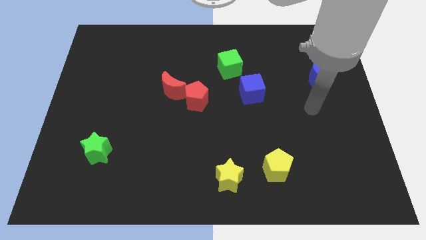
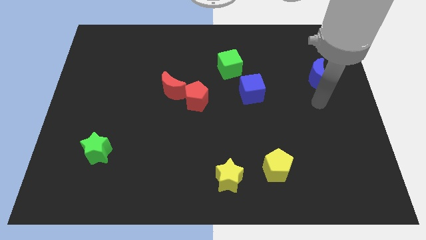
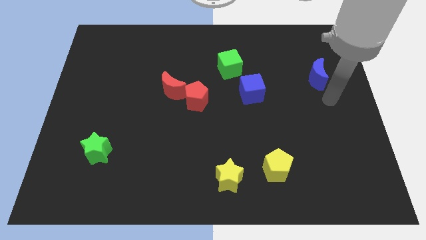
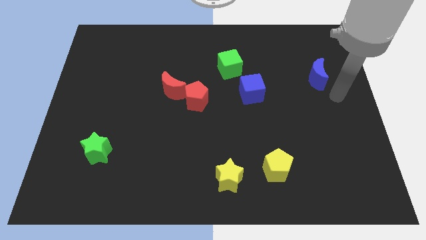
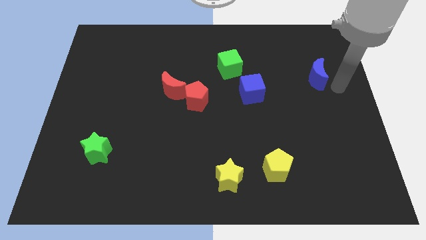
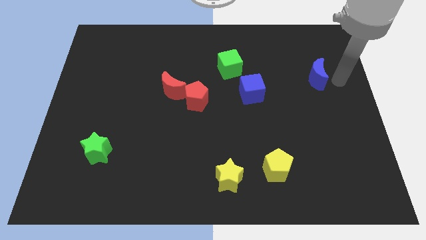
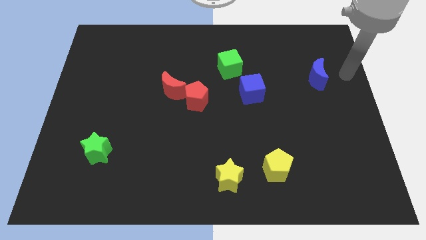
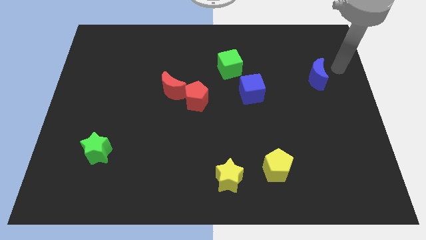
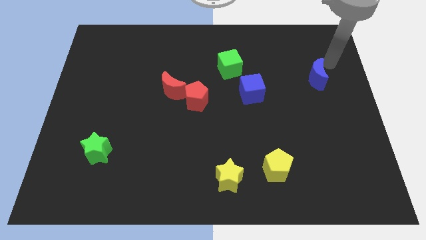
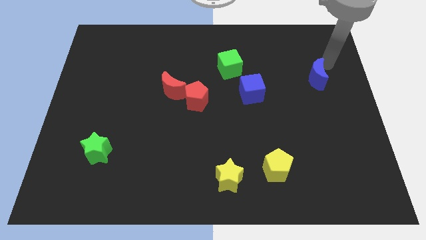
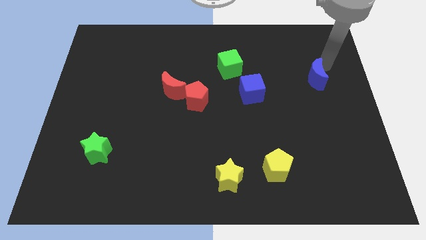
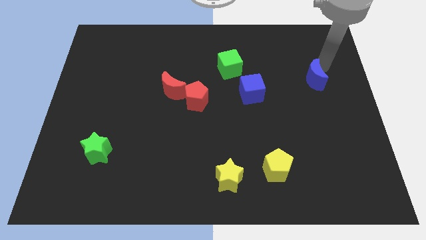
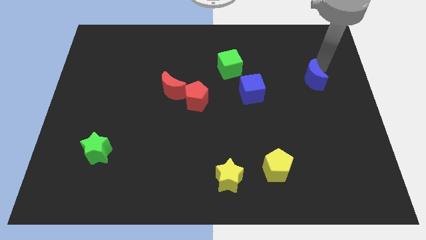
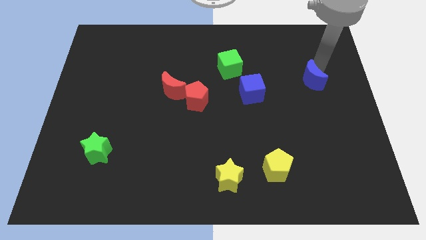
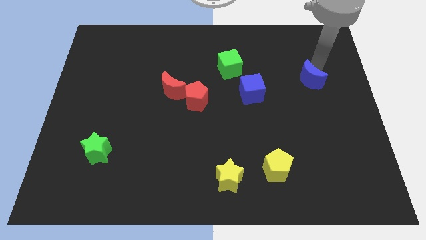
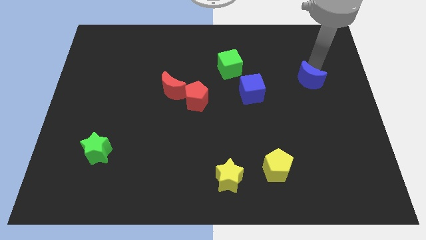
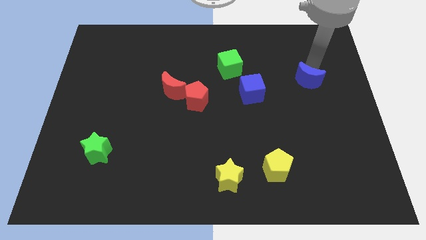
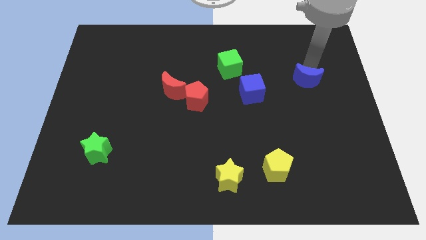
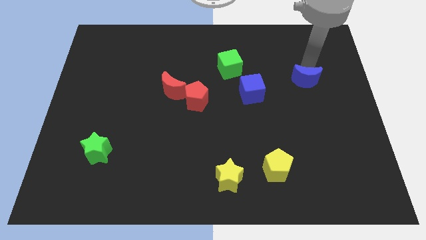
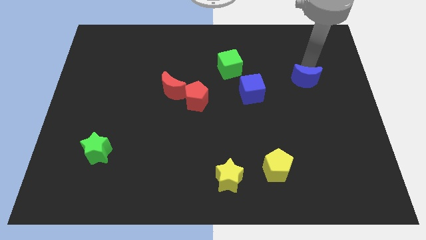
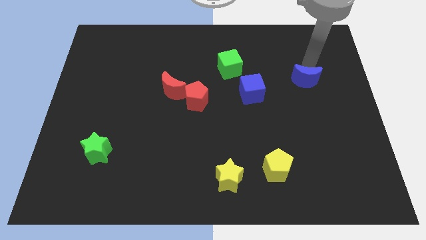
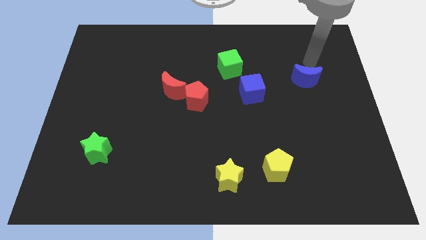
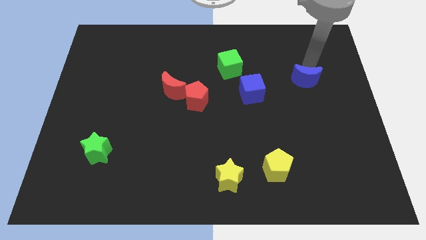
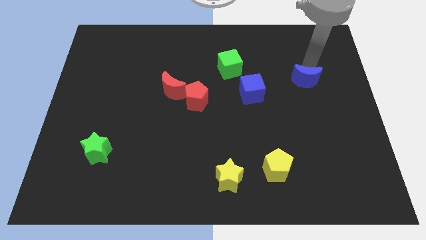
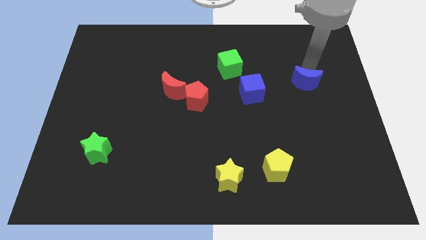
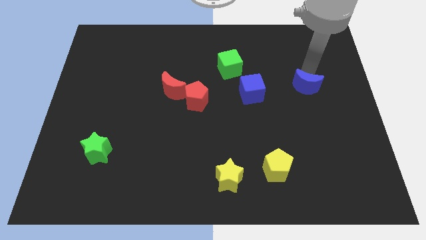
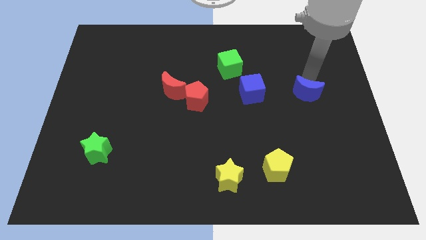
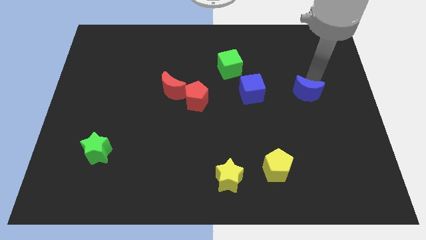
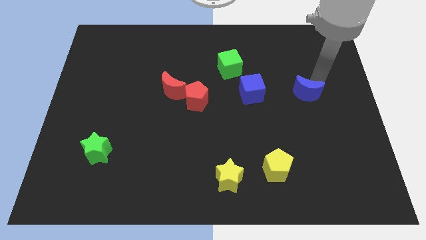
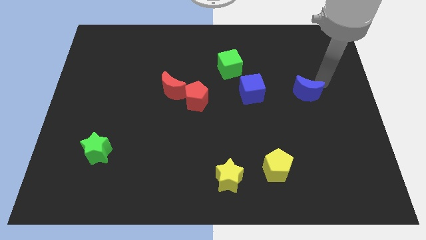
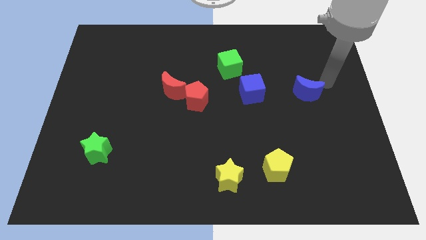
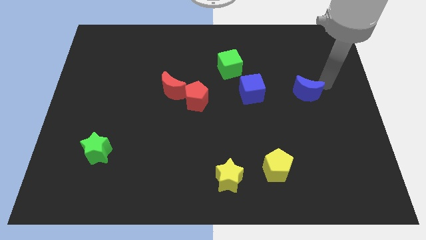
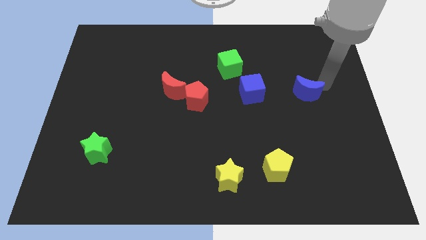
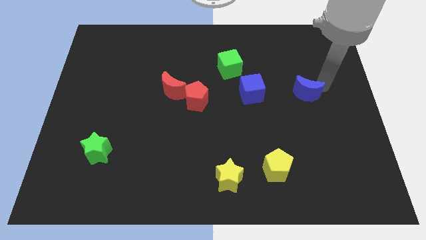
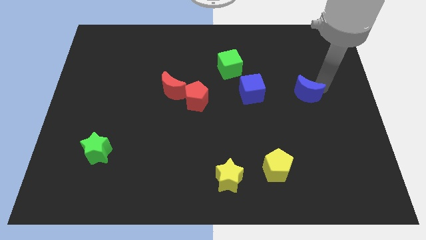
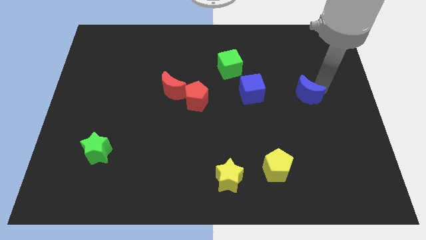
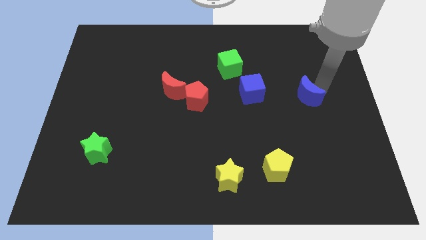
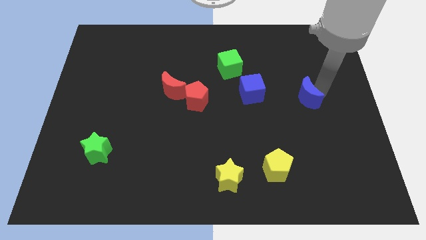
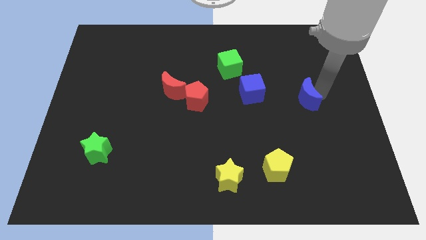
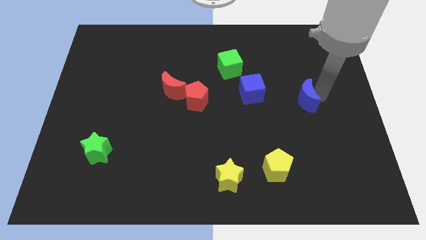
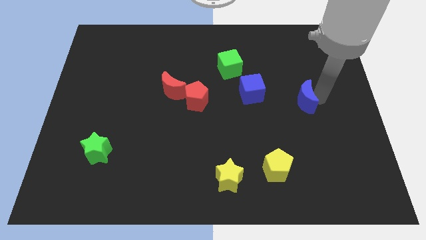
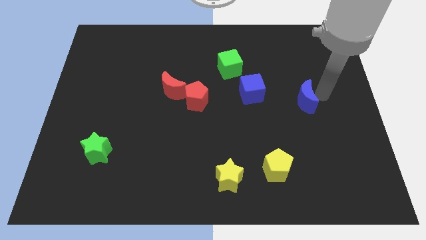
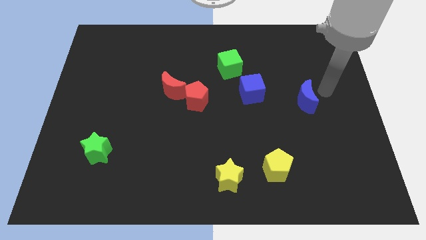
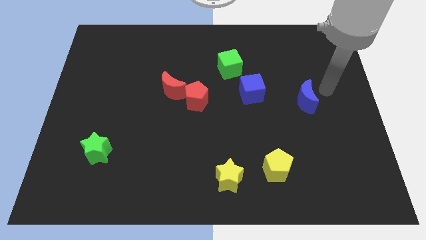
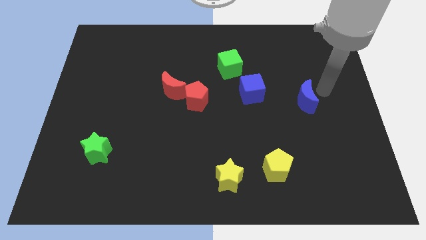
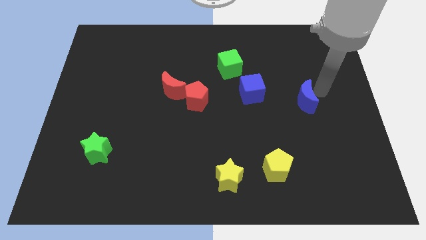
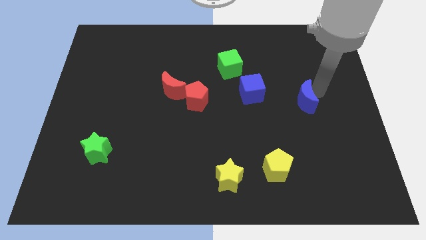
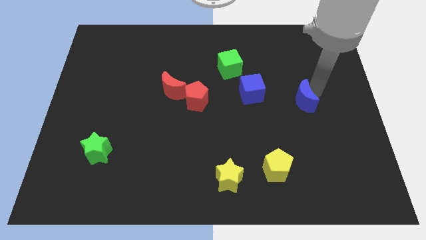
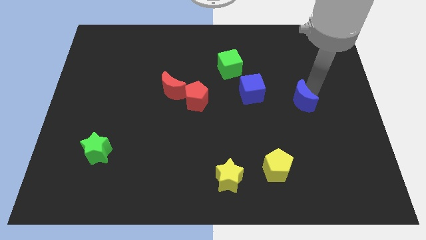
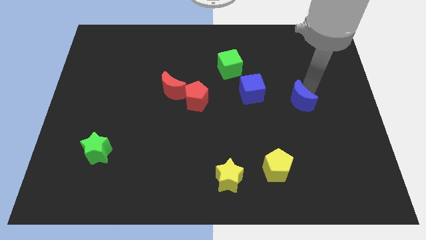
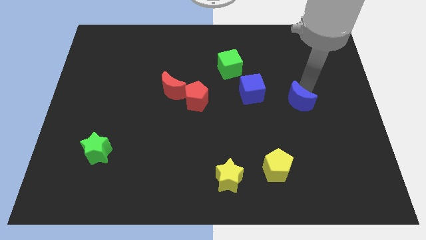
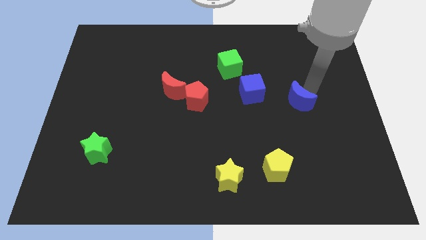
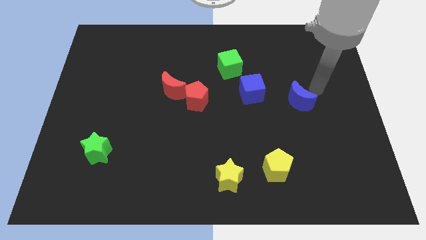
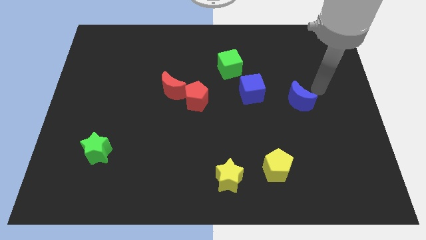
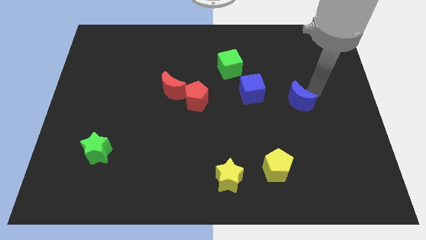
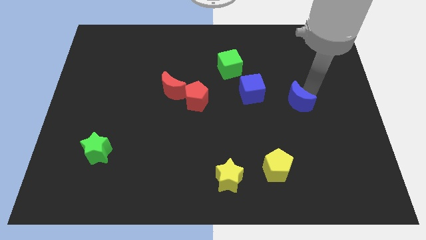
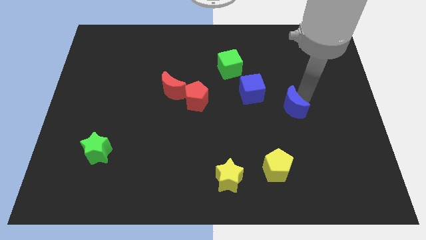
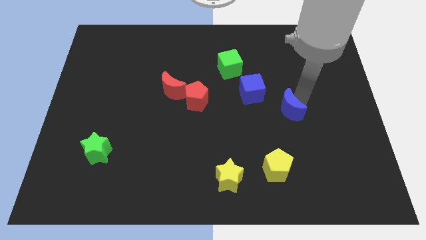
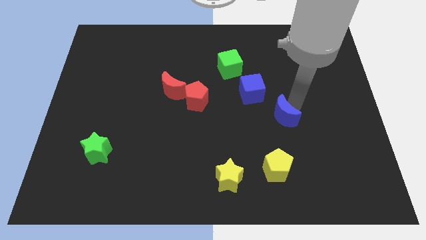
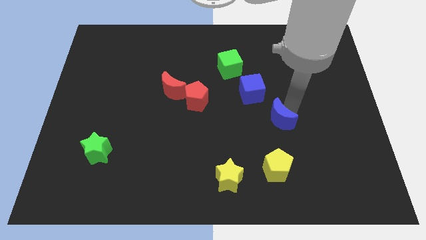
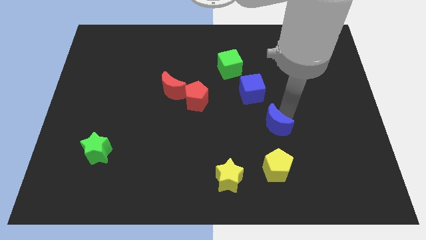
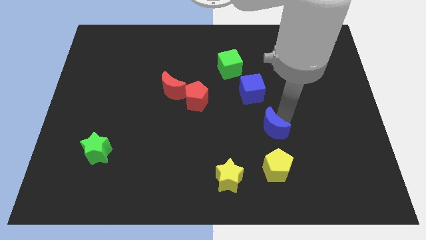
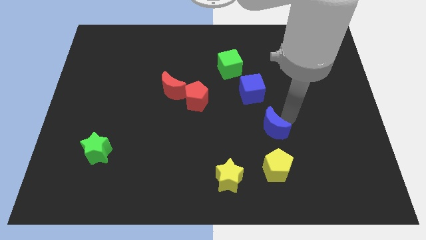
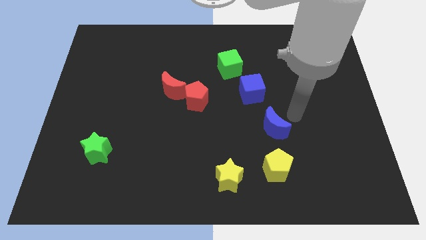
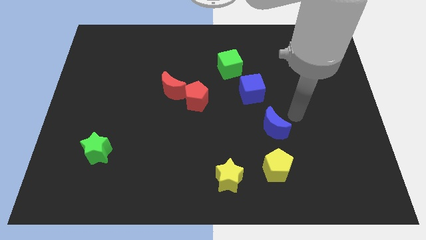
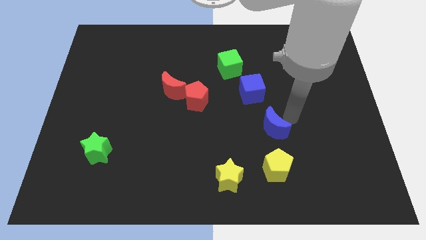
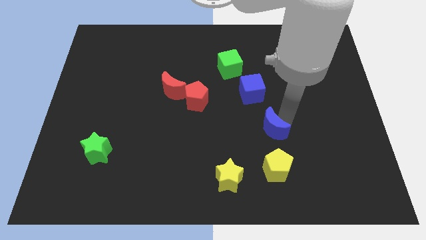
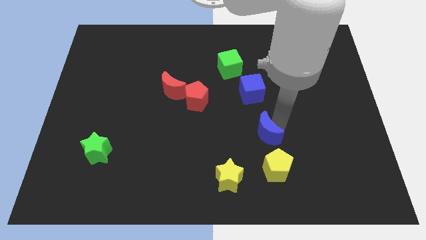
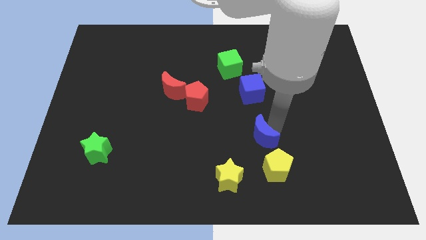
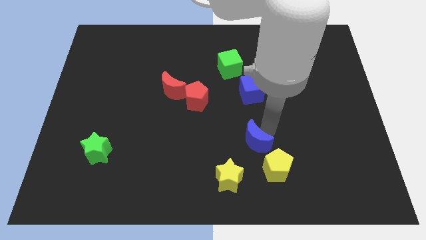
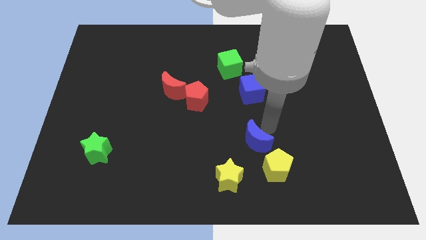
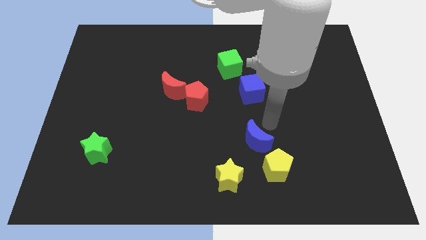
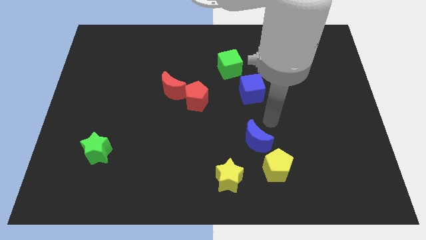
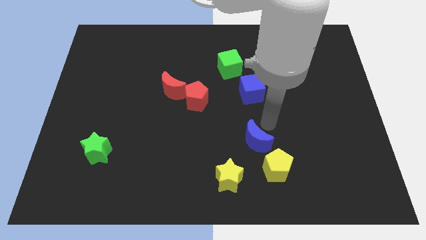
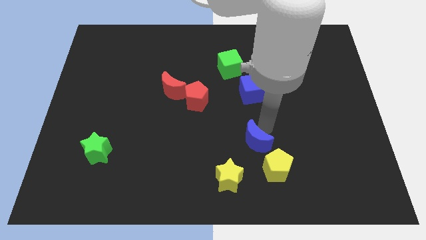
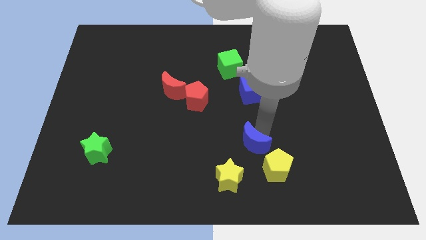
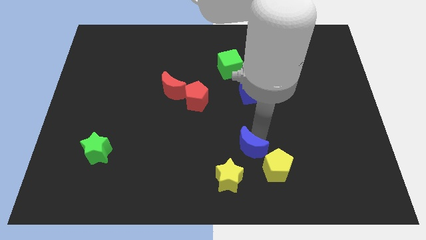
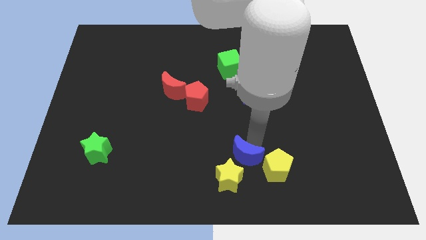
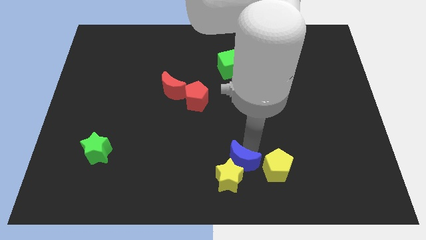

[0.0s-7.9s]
slide the blue moon next to the yellow star
